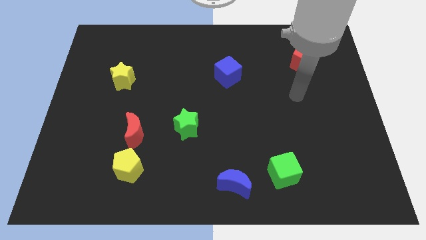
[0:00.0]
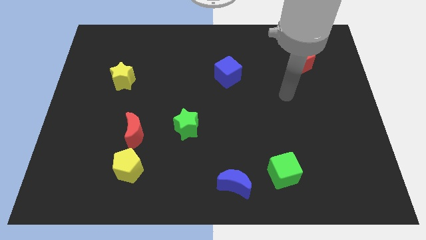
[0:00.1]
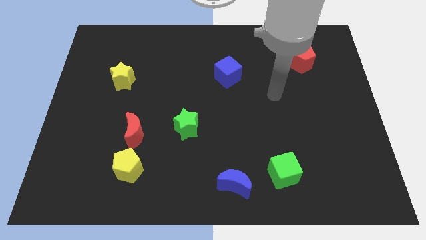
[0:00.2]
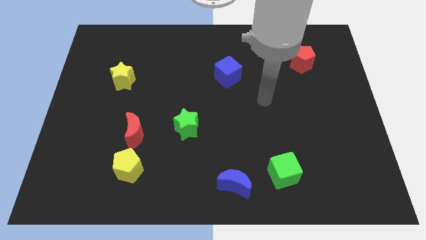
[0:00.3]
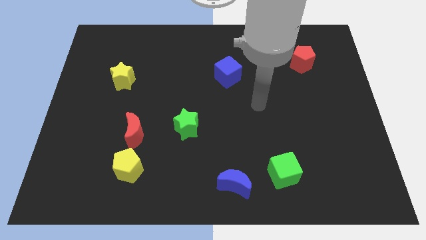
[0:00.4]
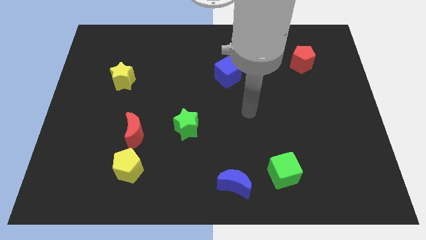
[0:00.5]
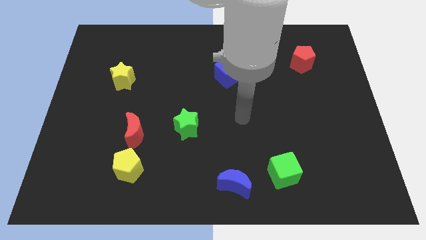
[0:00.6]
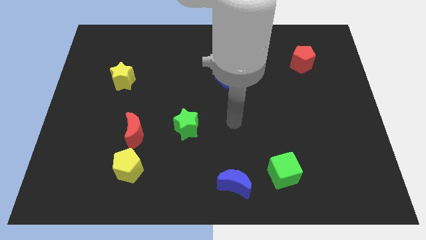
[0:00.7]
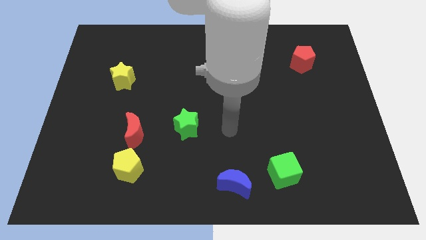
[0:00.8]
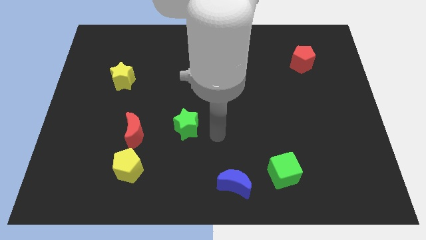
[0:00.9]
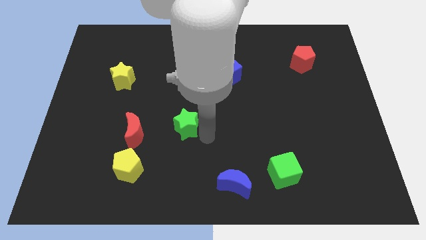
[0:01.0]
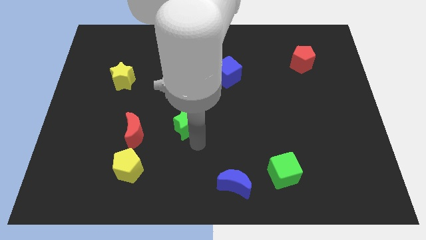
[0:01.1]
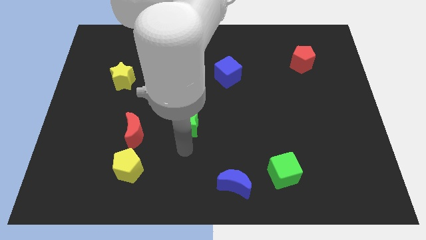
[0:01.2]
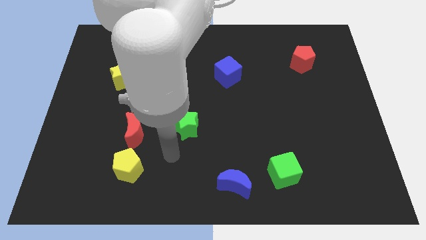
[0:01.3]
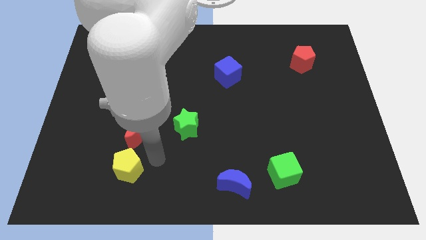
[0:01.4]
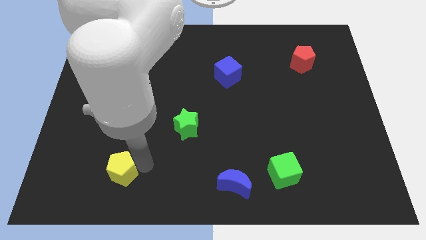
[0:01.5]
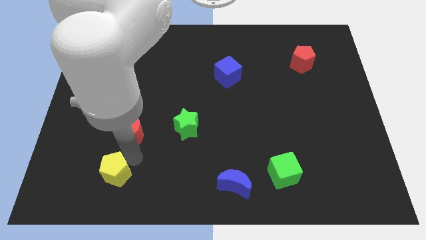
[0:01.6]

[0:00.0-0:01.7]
pull the red moon apart from the yellow pentagon

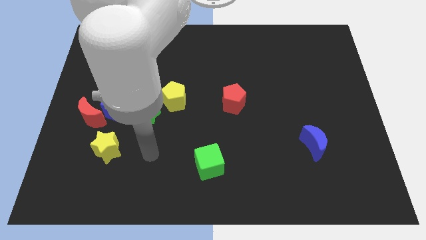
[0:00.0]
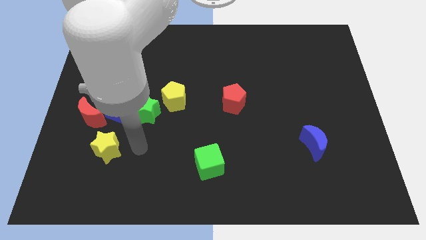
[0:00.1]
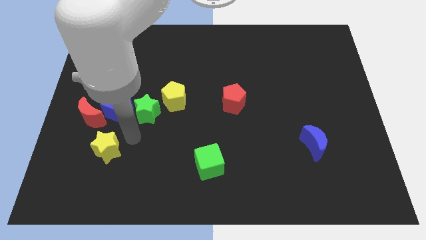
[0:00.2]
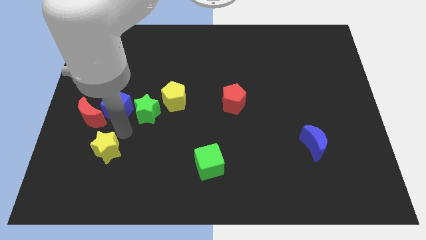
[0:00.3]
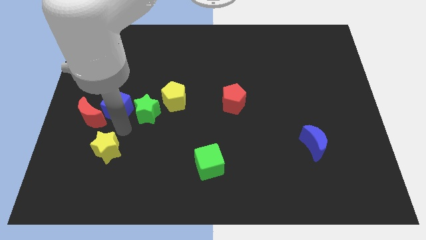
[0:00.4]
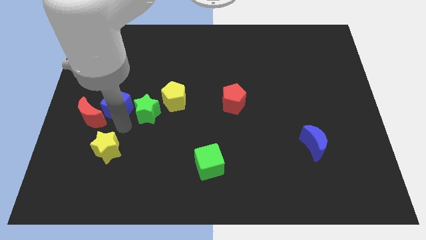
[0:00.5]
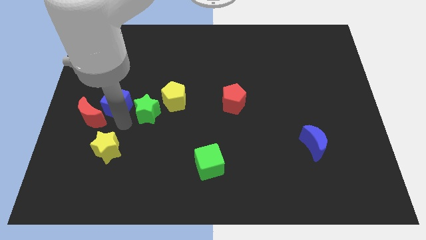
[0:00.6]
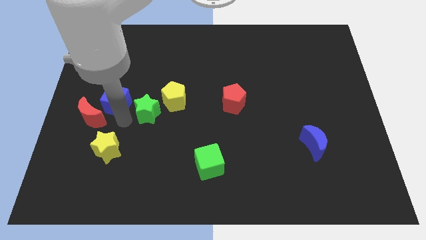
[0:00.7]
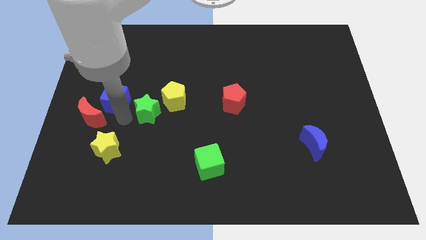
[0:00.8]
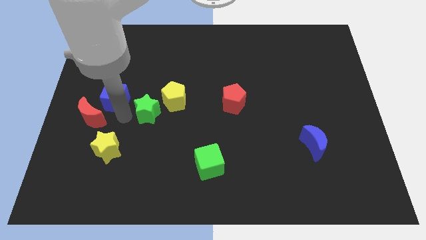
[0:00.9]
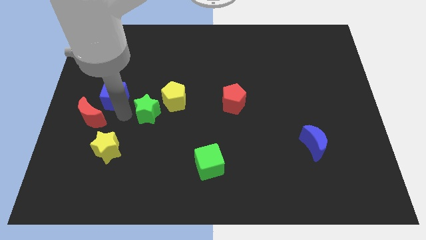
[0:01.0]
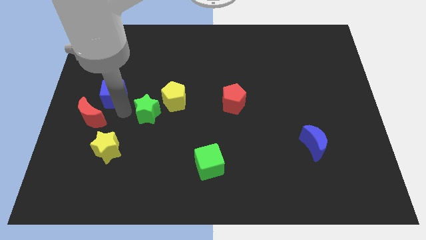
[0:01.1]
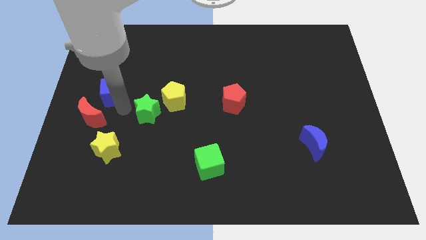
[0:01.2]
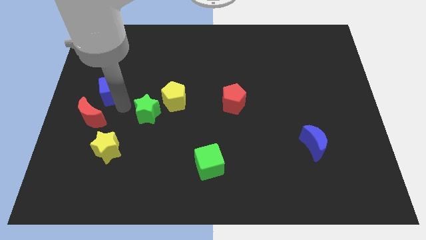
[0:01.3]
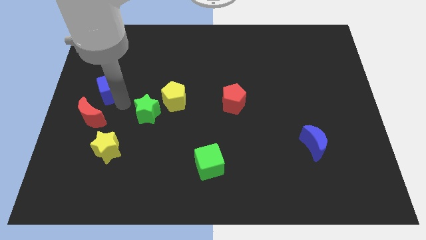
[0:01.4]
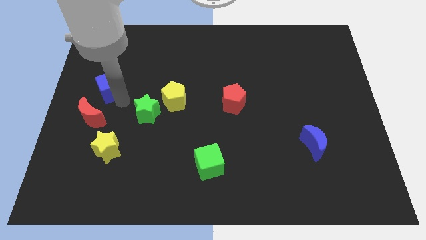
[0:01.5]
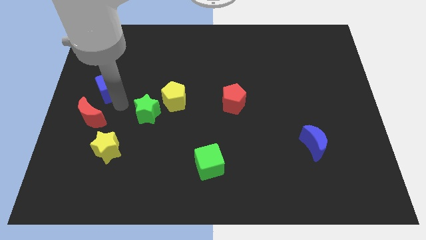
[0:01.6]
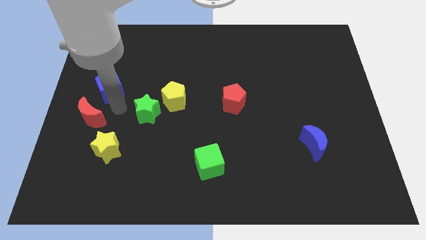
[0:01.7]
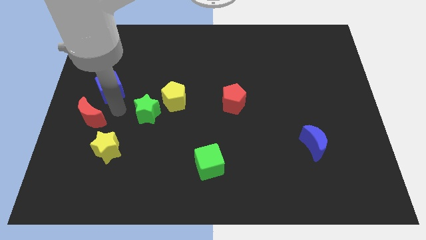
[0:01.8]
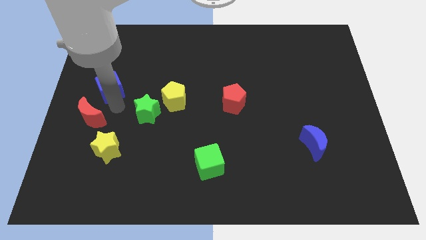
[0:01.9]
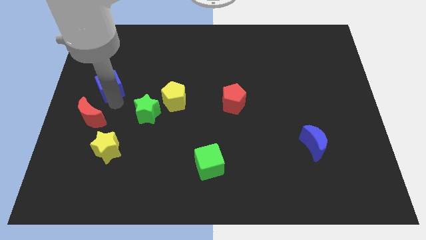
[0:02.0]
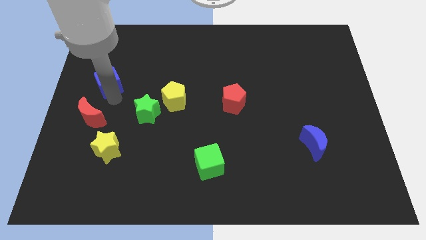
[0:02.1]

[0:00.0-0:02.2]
move the blue cube away from the red moon and green star

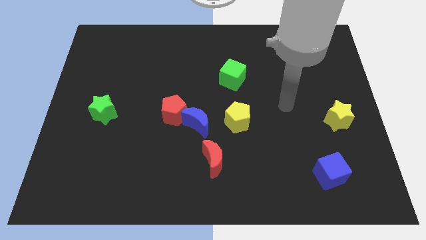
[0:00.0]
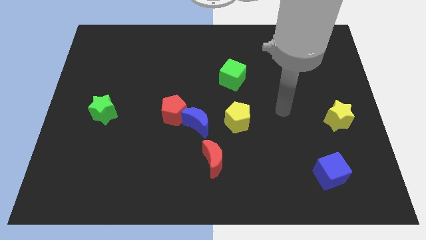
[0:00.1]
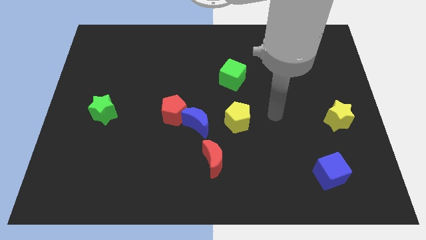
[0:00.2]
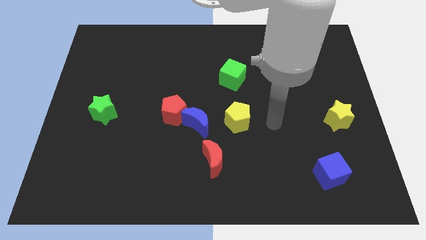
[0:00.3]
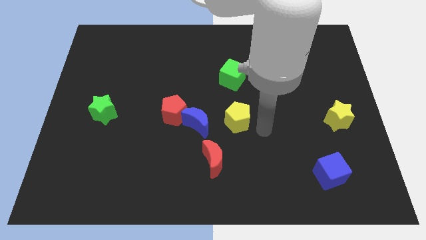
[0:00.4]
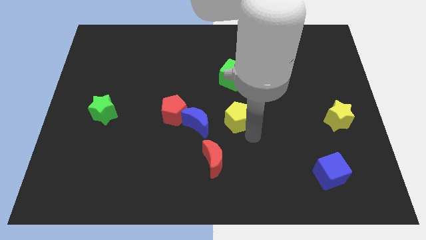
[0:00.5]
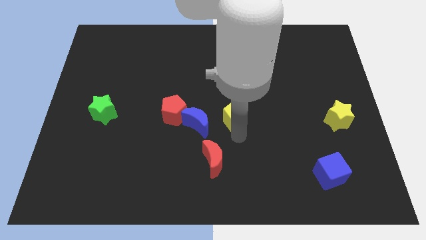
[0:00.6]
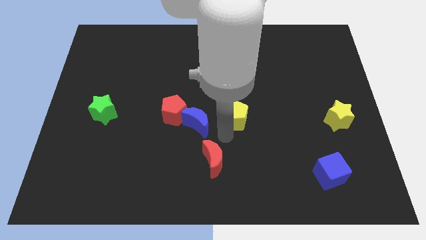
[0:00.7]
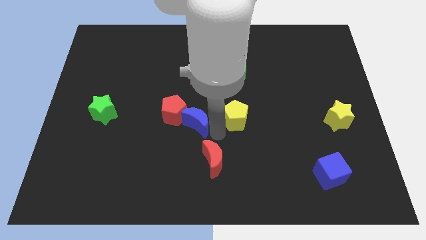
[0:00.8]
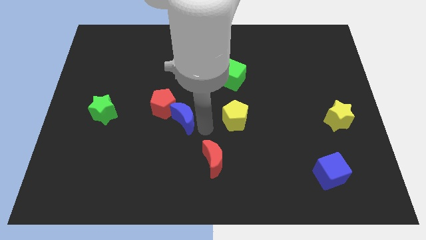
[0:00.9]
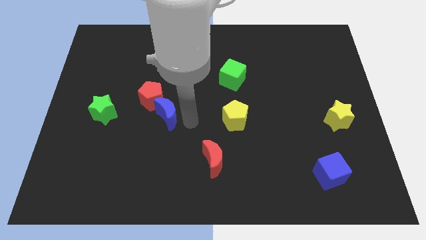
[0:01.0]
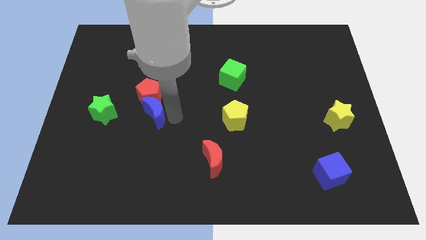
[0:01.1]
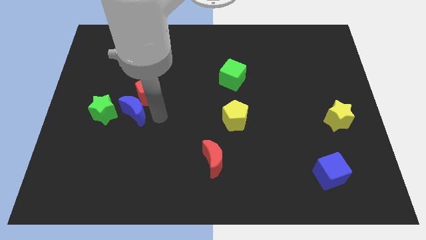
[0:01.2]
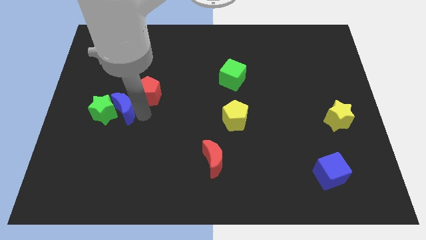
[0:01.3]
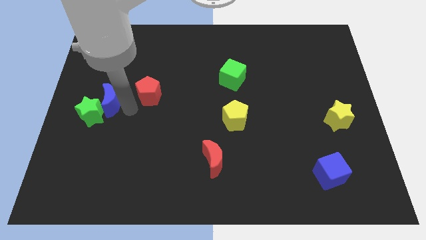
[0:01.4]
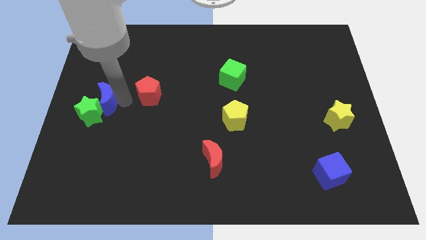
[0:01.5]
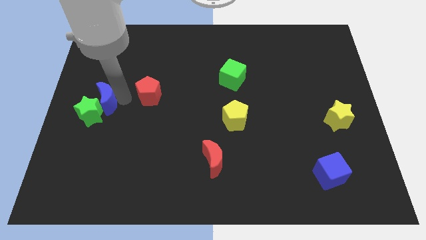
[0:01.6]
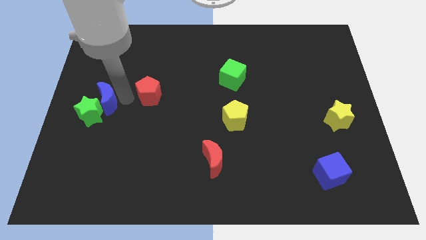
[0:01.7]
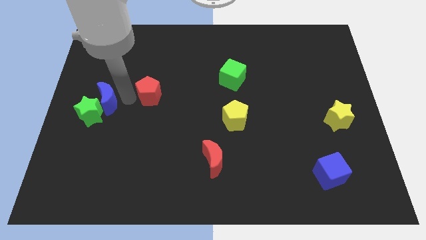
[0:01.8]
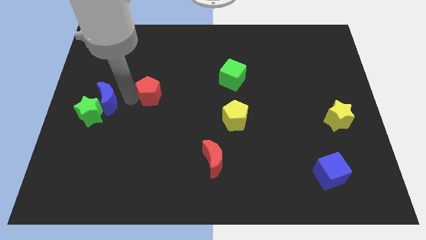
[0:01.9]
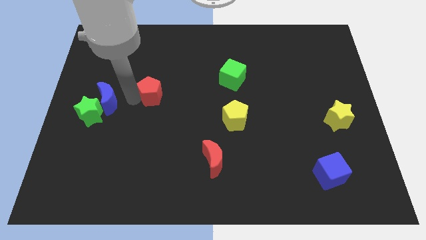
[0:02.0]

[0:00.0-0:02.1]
move the red pentagon away from the blue moon

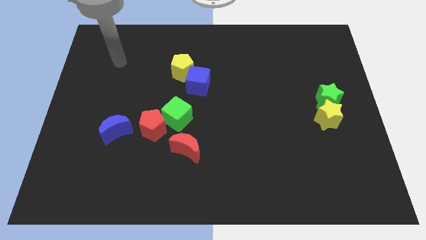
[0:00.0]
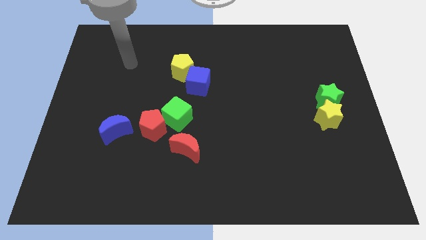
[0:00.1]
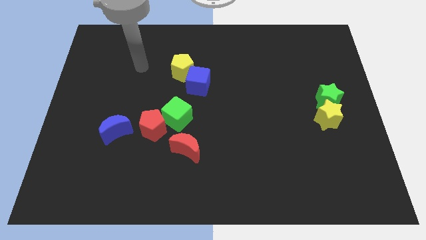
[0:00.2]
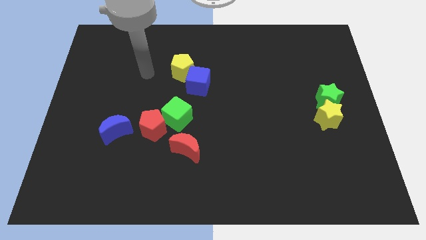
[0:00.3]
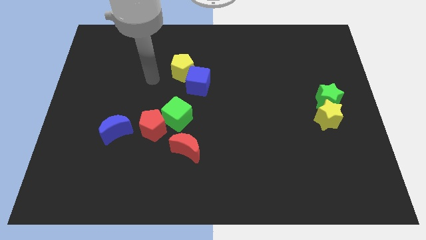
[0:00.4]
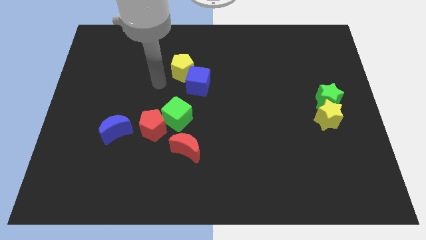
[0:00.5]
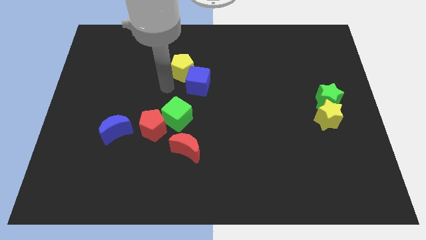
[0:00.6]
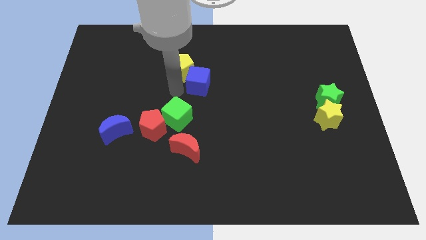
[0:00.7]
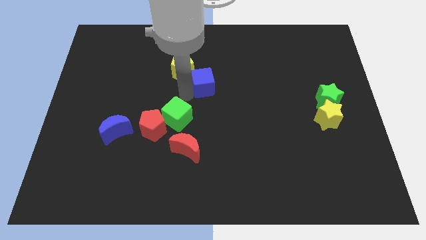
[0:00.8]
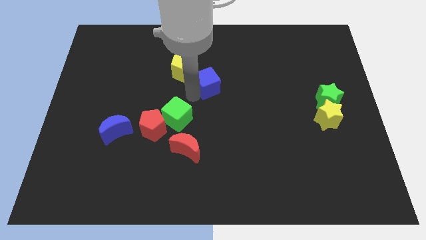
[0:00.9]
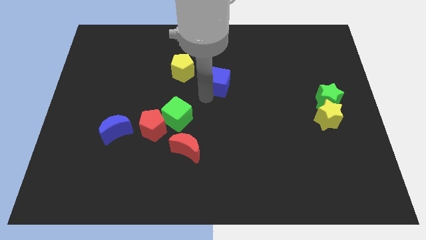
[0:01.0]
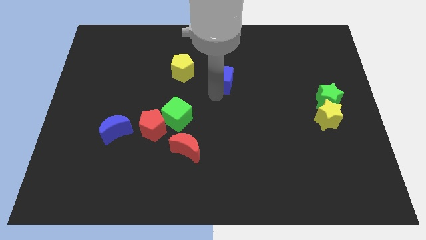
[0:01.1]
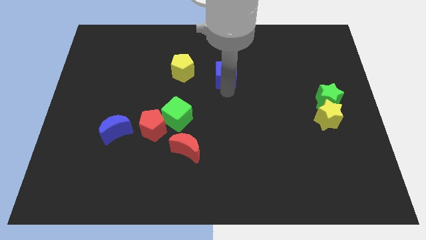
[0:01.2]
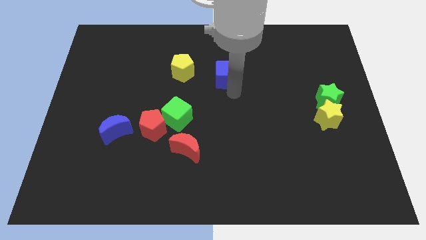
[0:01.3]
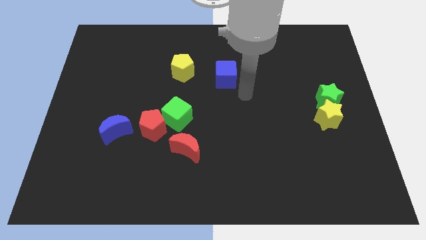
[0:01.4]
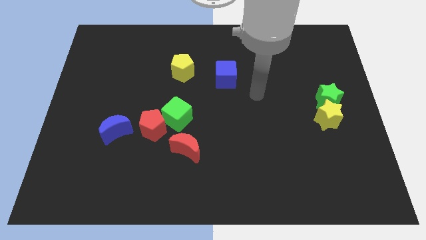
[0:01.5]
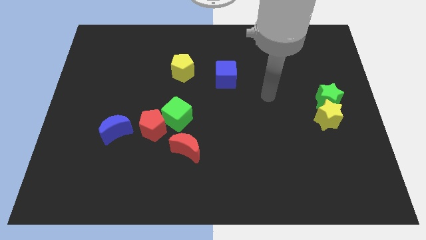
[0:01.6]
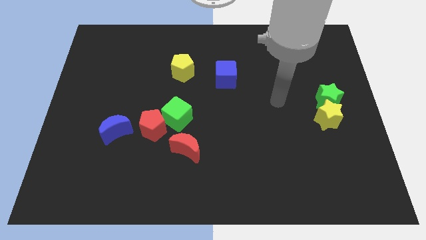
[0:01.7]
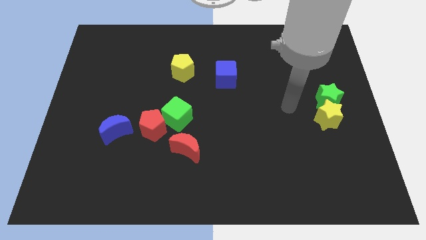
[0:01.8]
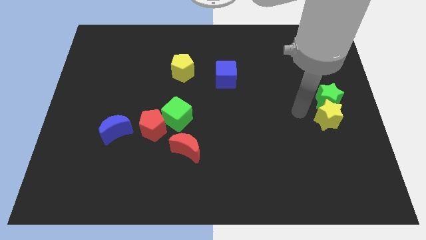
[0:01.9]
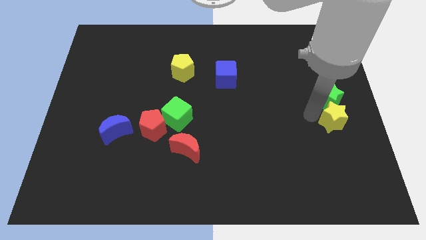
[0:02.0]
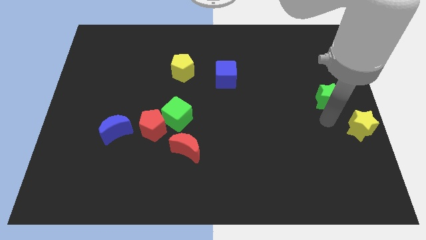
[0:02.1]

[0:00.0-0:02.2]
pull the green star apart from the yellow star

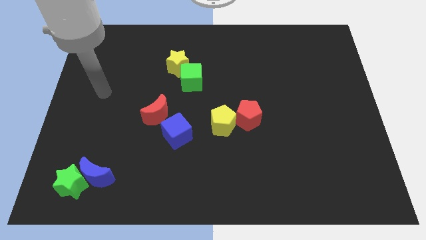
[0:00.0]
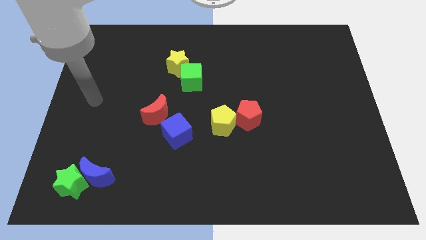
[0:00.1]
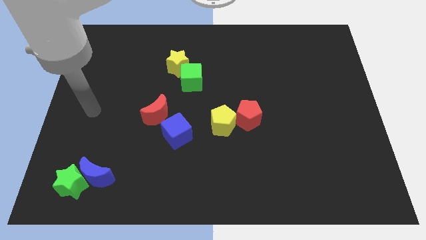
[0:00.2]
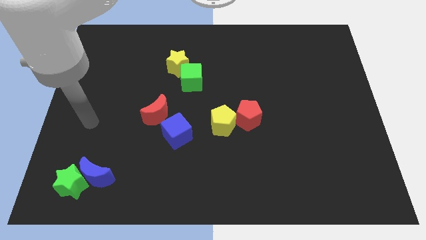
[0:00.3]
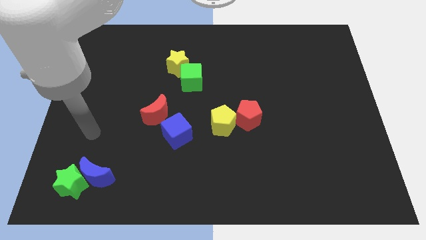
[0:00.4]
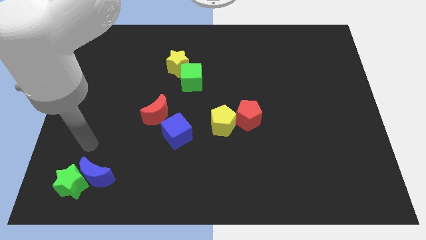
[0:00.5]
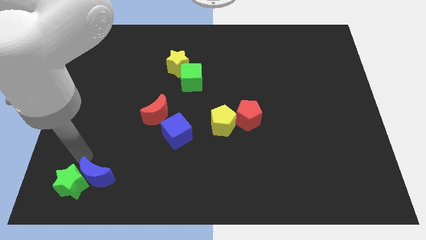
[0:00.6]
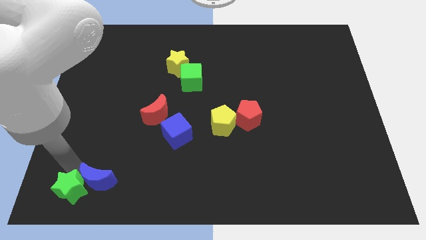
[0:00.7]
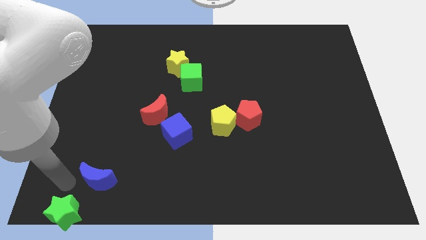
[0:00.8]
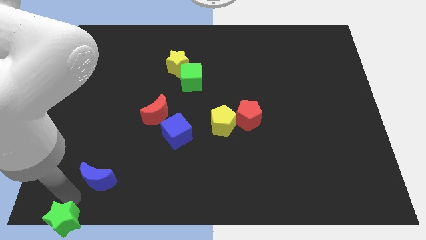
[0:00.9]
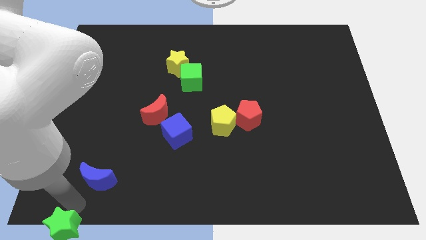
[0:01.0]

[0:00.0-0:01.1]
move the blue moon away from the green star
